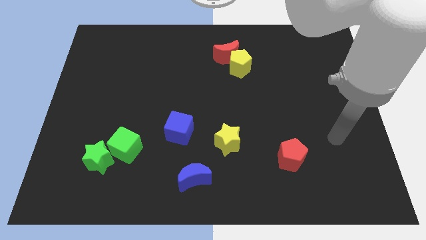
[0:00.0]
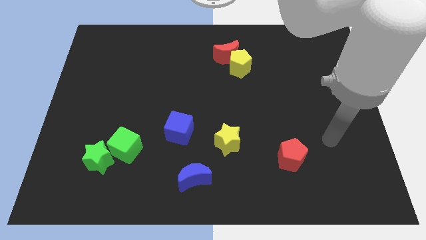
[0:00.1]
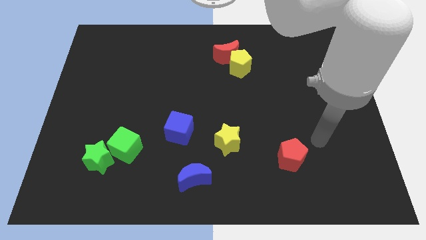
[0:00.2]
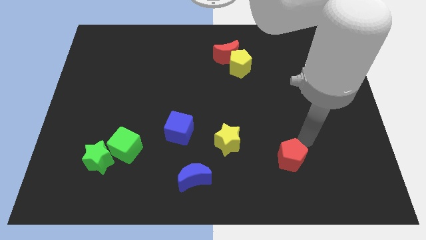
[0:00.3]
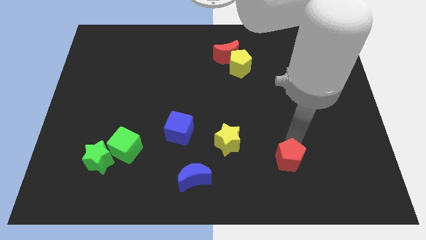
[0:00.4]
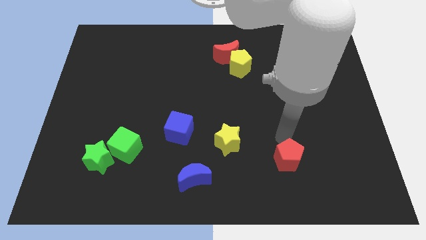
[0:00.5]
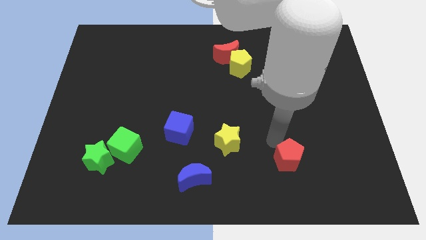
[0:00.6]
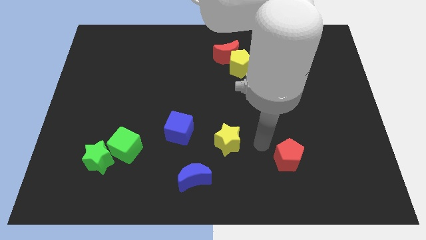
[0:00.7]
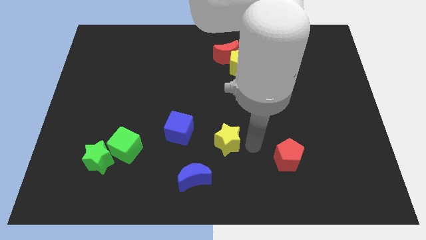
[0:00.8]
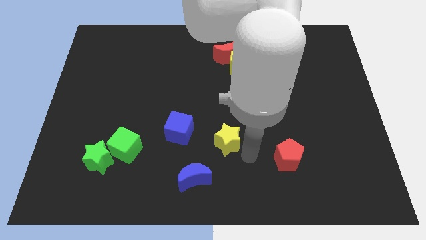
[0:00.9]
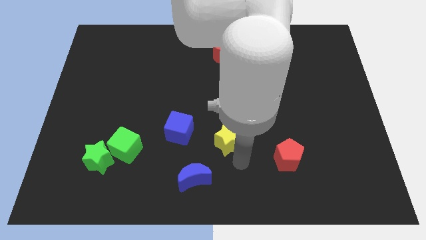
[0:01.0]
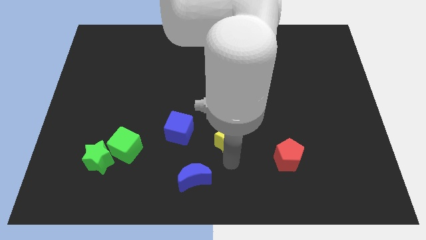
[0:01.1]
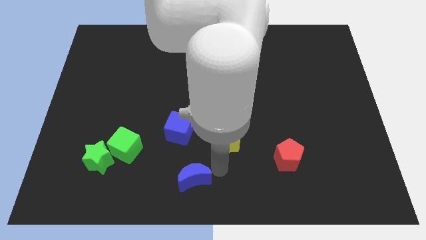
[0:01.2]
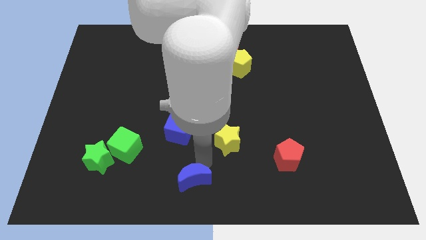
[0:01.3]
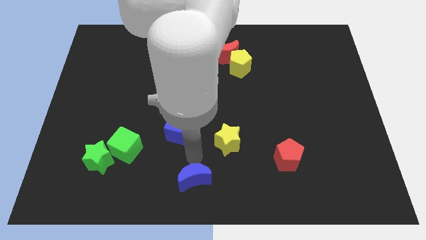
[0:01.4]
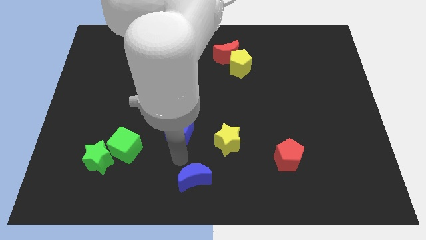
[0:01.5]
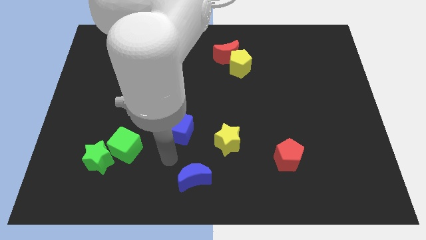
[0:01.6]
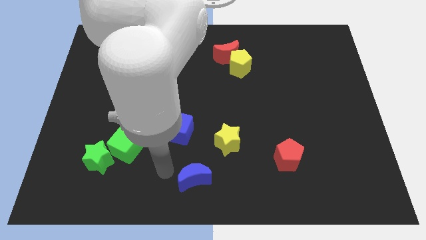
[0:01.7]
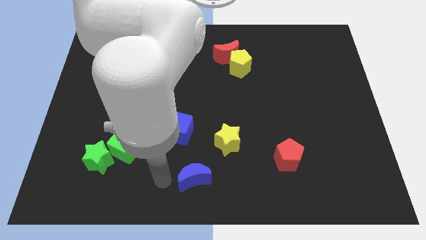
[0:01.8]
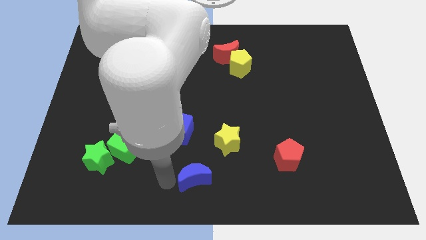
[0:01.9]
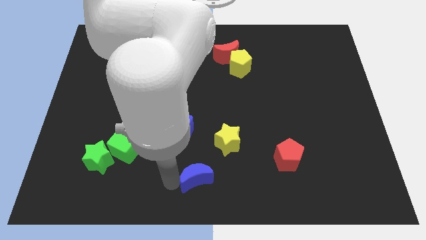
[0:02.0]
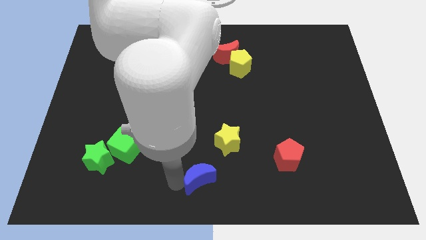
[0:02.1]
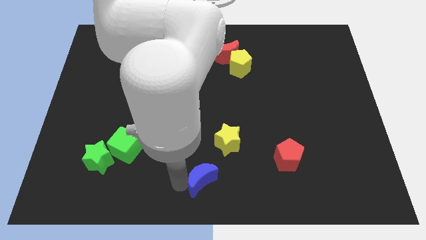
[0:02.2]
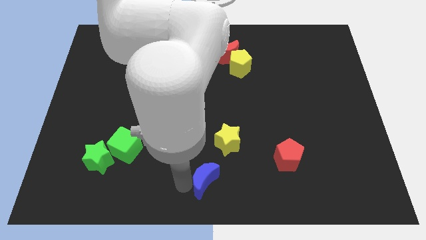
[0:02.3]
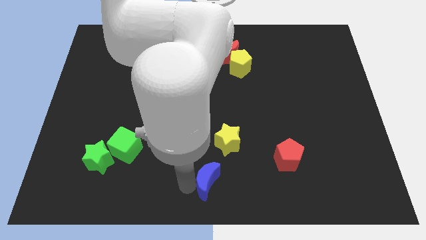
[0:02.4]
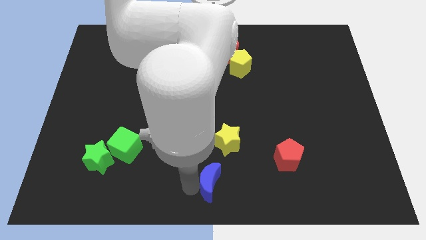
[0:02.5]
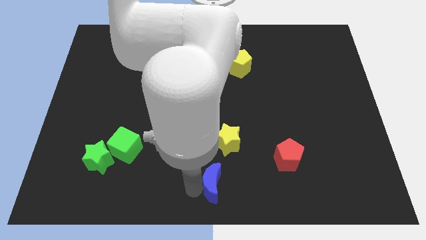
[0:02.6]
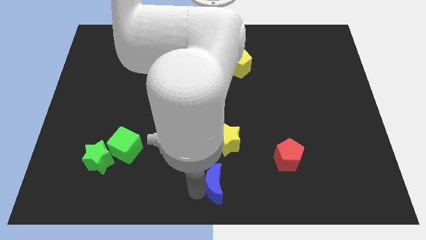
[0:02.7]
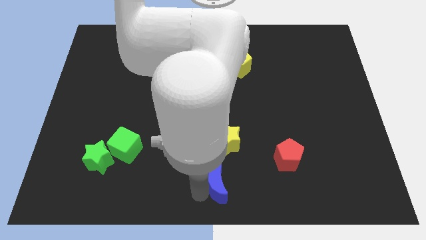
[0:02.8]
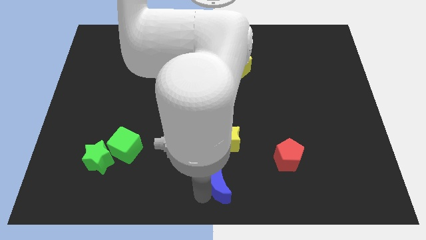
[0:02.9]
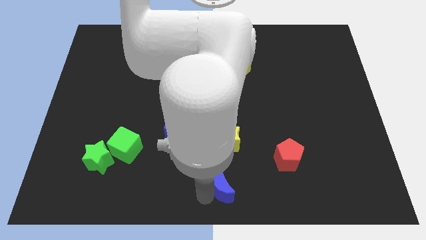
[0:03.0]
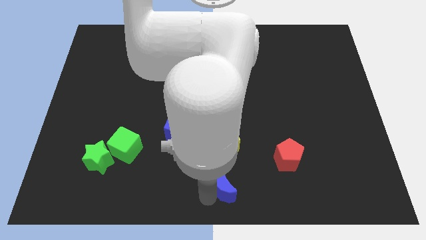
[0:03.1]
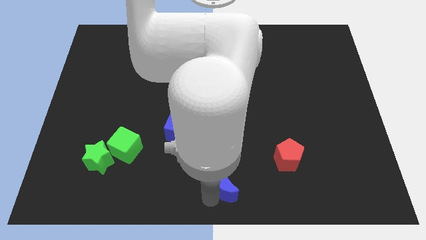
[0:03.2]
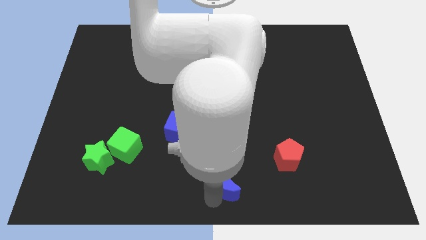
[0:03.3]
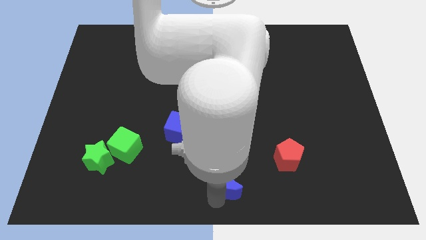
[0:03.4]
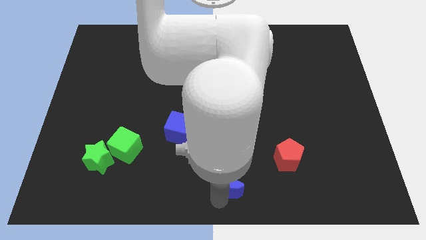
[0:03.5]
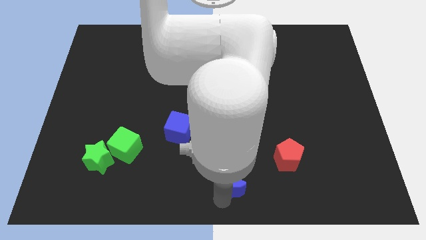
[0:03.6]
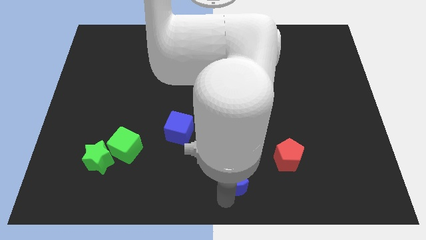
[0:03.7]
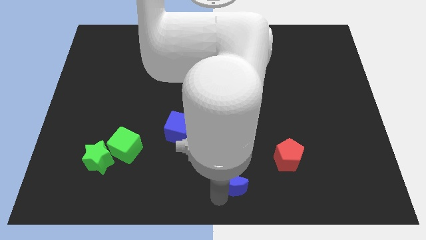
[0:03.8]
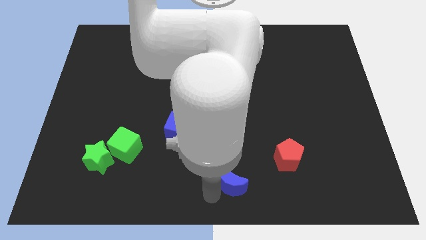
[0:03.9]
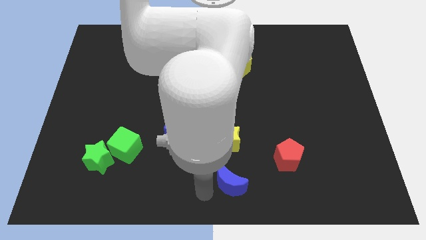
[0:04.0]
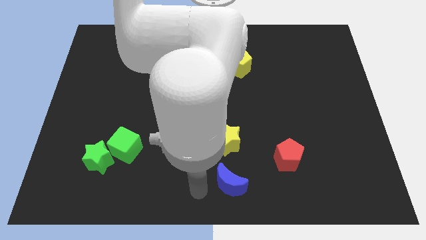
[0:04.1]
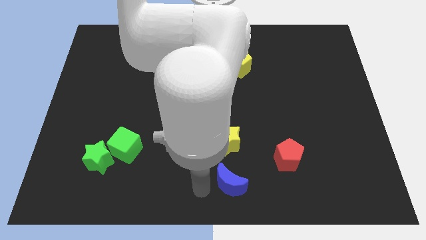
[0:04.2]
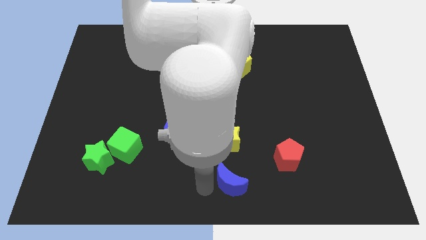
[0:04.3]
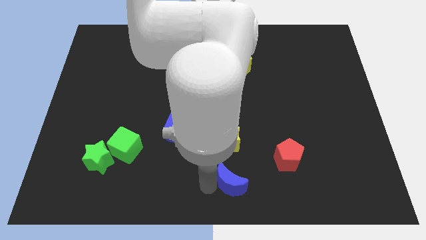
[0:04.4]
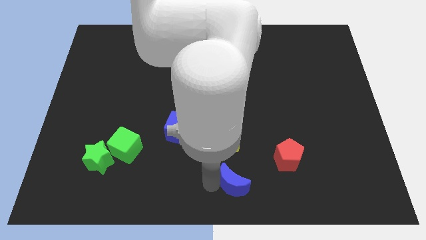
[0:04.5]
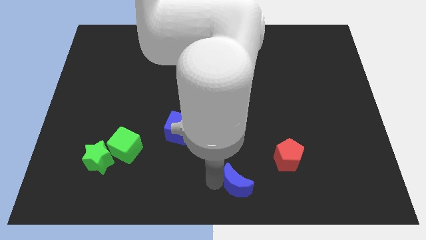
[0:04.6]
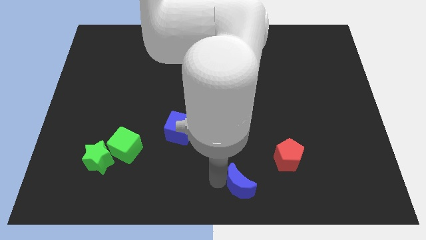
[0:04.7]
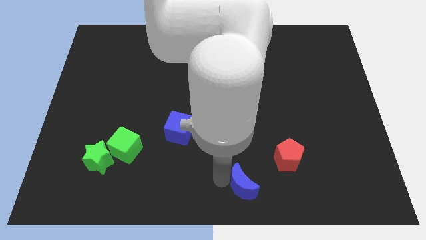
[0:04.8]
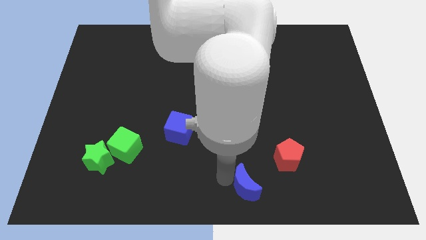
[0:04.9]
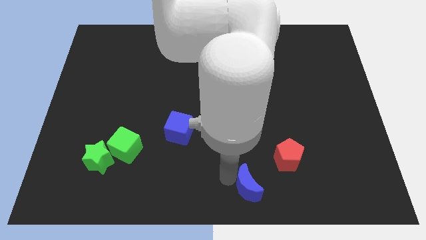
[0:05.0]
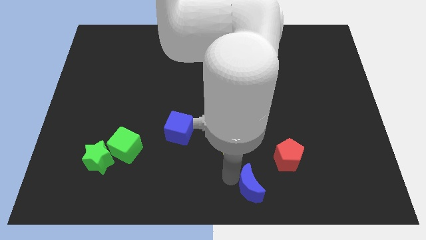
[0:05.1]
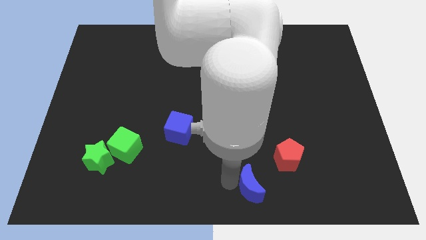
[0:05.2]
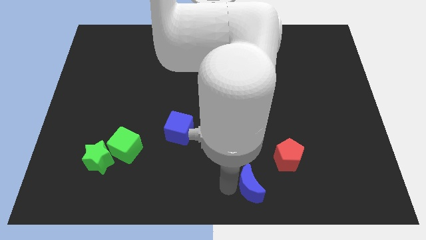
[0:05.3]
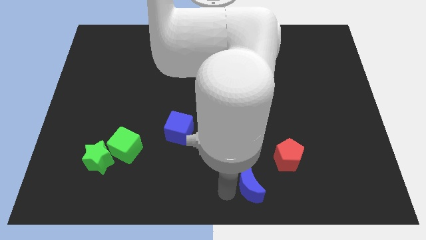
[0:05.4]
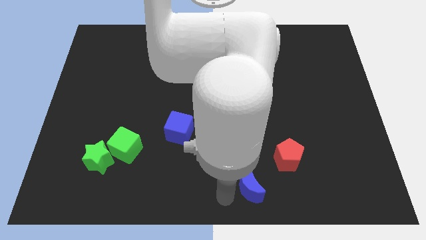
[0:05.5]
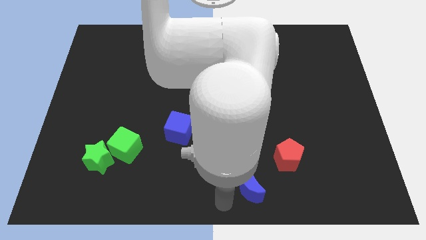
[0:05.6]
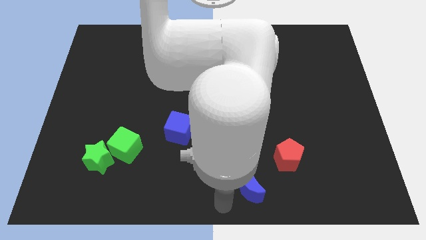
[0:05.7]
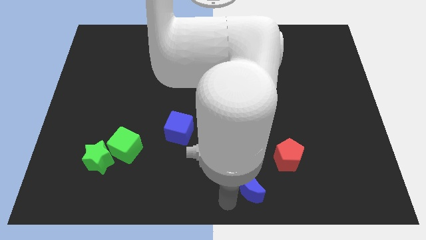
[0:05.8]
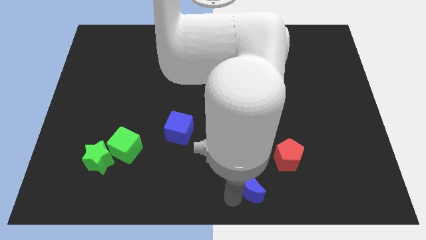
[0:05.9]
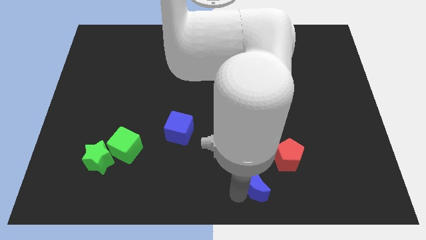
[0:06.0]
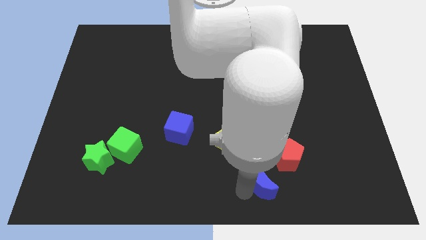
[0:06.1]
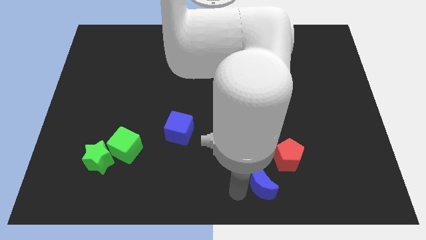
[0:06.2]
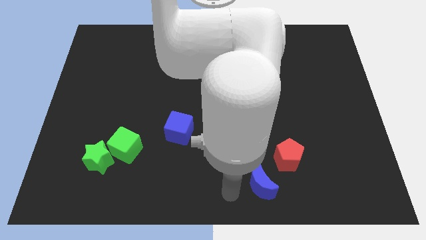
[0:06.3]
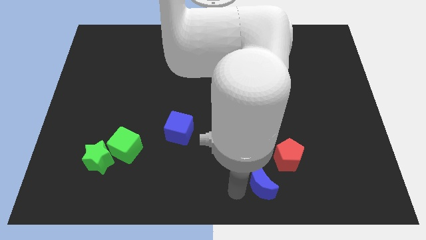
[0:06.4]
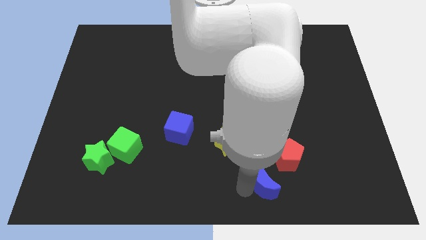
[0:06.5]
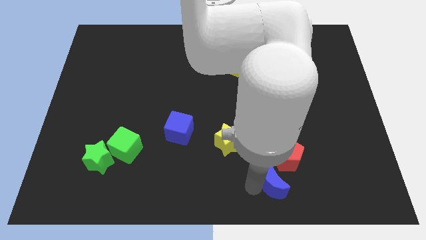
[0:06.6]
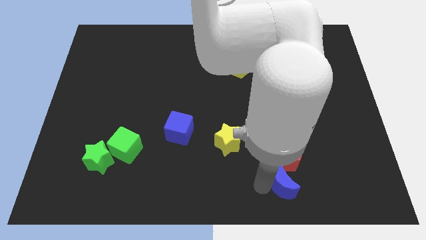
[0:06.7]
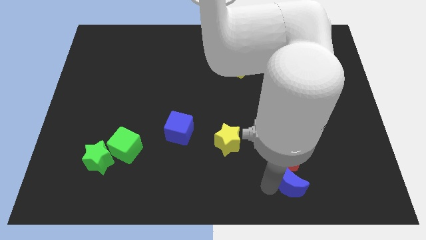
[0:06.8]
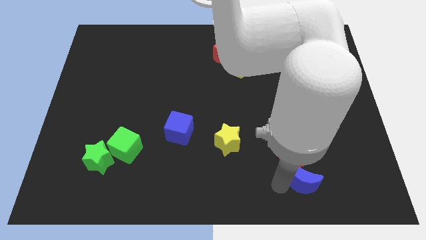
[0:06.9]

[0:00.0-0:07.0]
slide the blue moon right

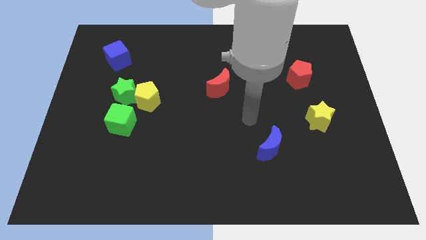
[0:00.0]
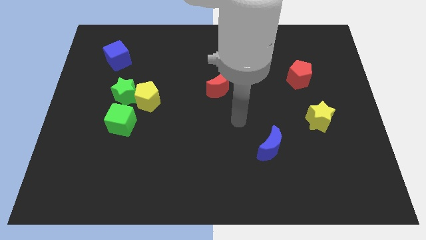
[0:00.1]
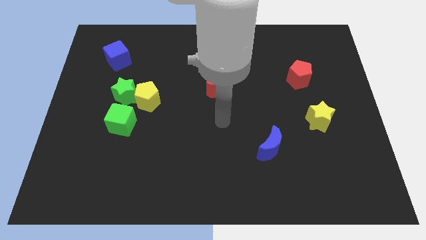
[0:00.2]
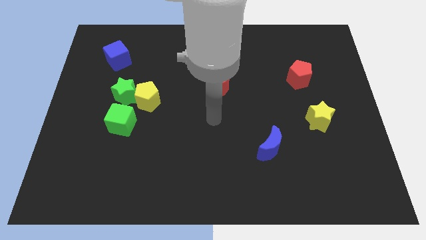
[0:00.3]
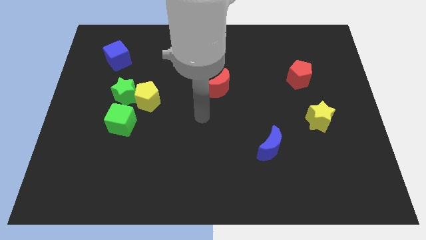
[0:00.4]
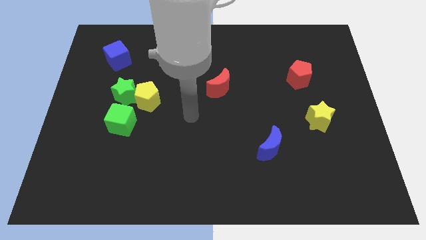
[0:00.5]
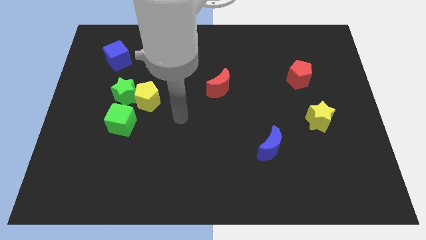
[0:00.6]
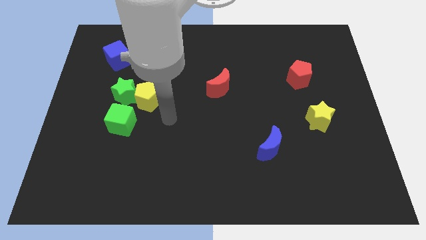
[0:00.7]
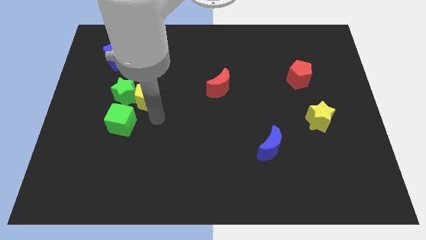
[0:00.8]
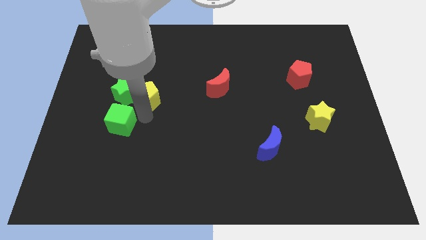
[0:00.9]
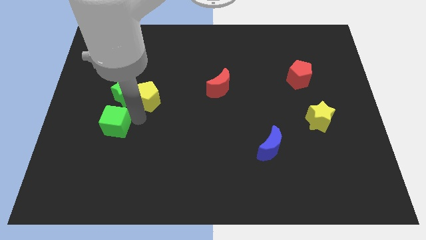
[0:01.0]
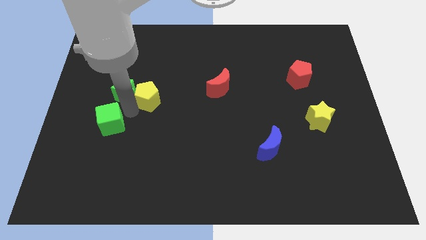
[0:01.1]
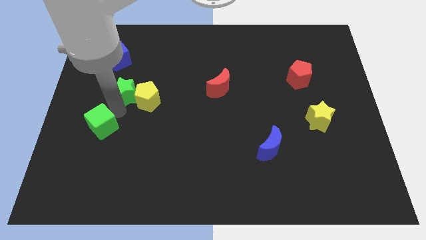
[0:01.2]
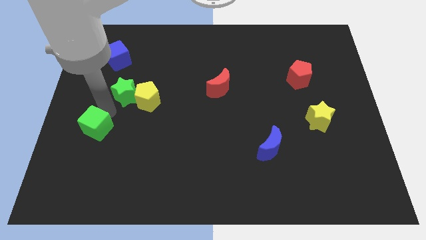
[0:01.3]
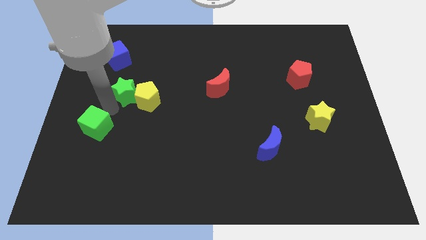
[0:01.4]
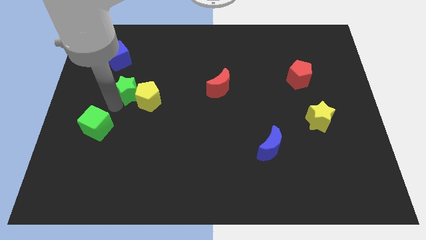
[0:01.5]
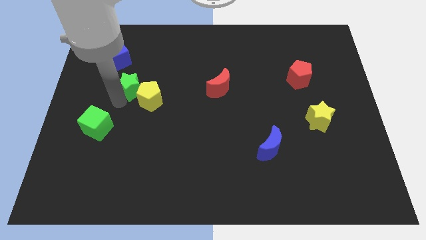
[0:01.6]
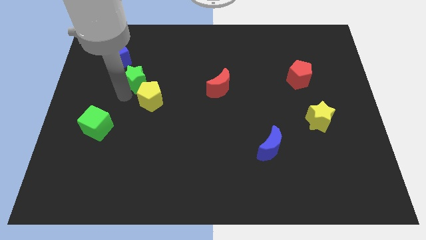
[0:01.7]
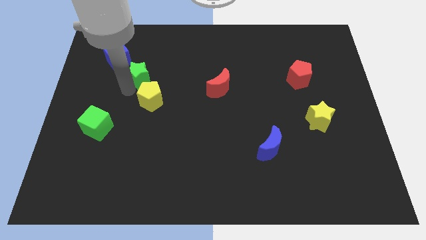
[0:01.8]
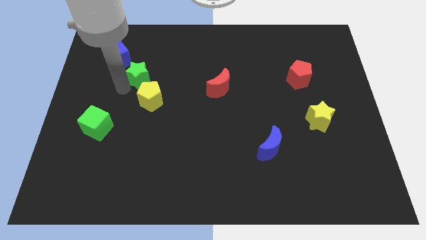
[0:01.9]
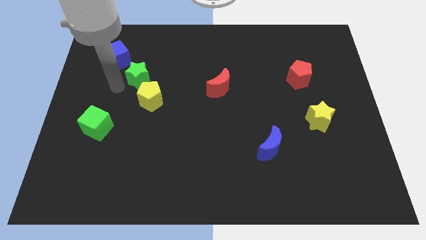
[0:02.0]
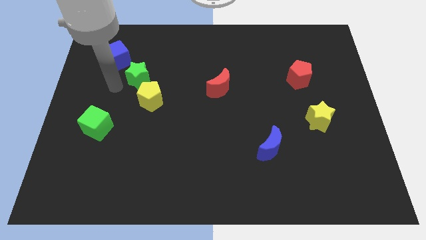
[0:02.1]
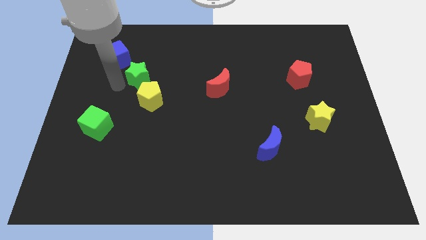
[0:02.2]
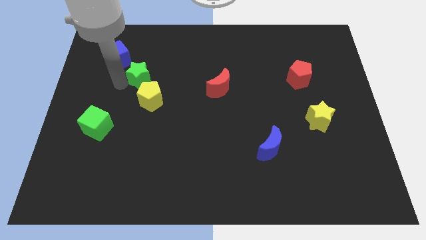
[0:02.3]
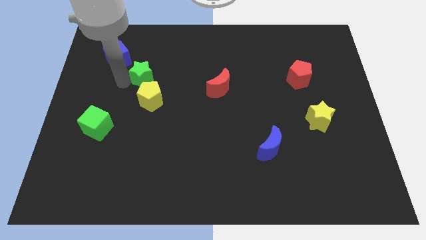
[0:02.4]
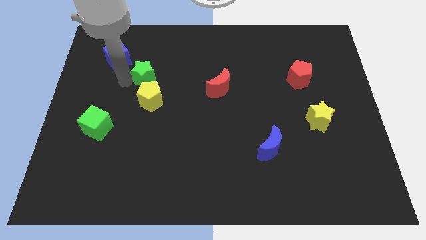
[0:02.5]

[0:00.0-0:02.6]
push the green star up and to the right a little bit
